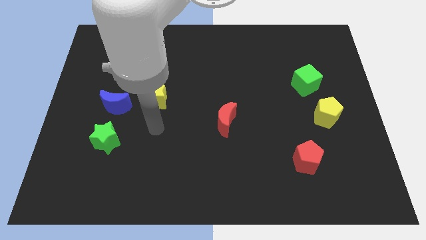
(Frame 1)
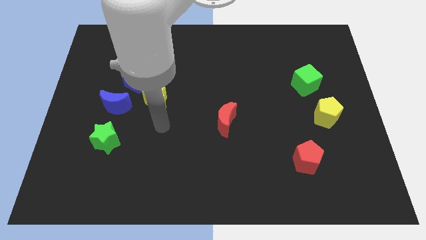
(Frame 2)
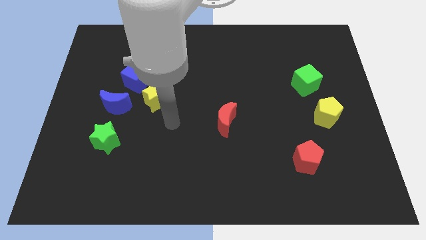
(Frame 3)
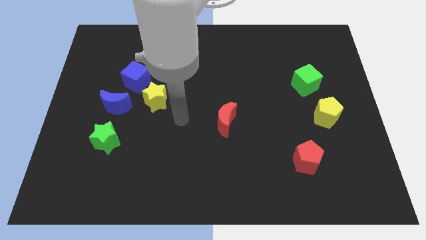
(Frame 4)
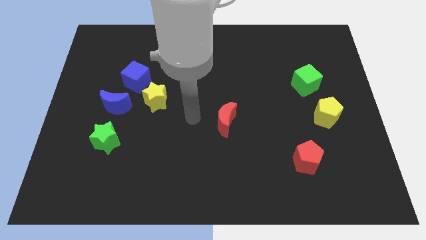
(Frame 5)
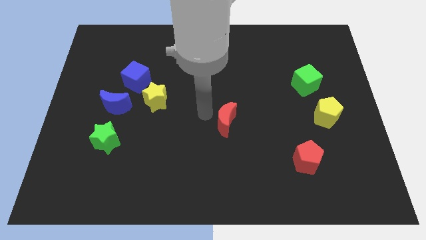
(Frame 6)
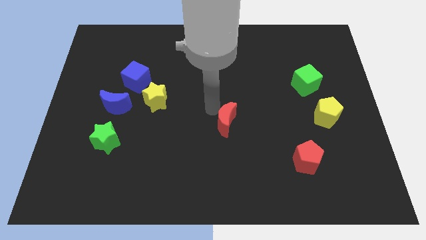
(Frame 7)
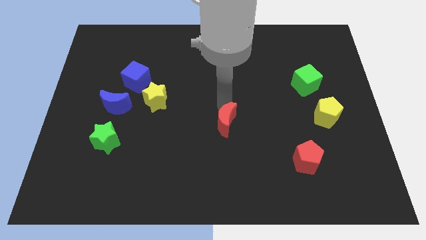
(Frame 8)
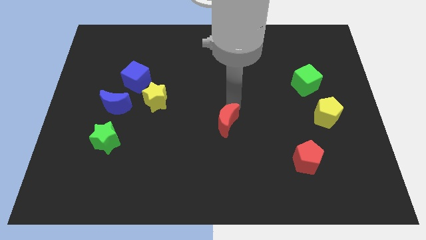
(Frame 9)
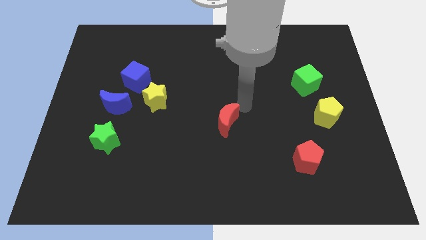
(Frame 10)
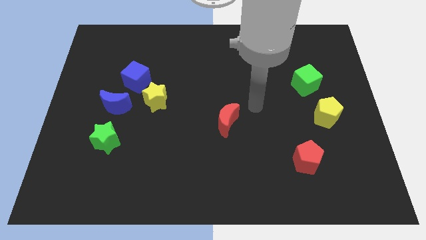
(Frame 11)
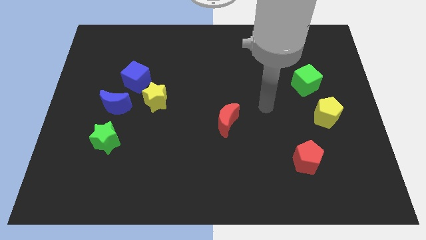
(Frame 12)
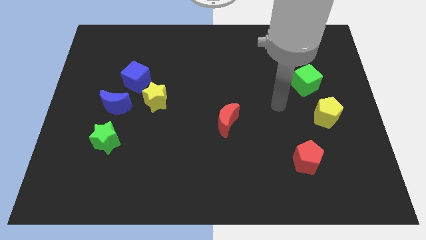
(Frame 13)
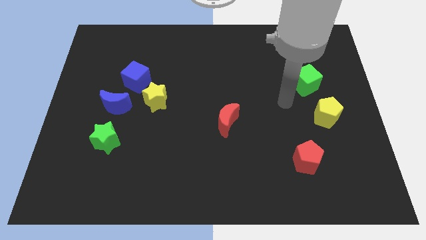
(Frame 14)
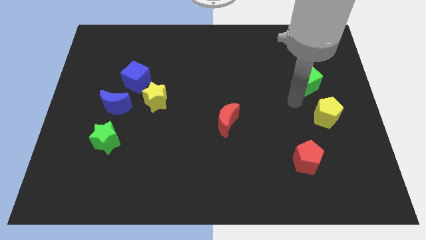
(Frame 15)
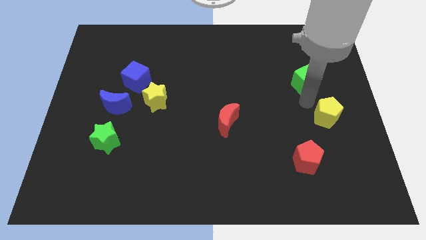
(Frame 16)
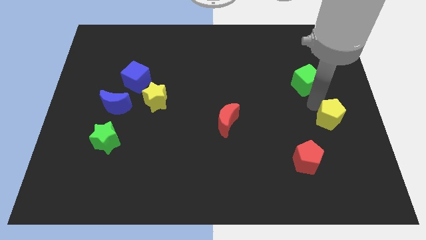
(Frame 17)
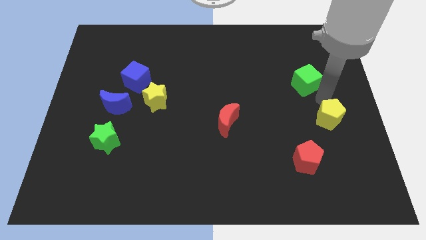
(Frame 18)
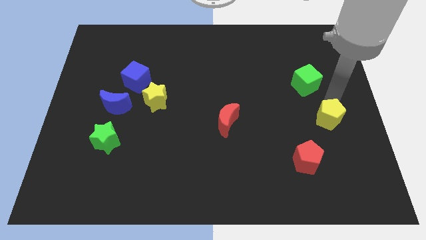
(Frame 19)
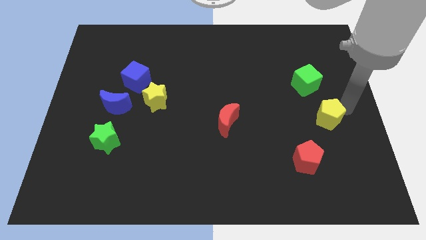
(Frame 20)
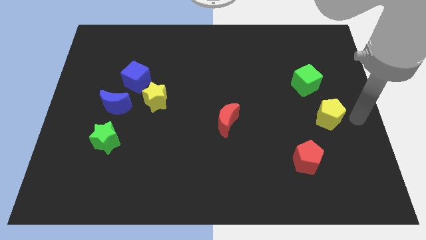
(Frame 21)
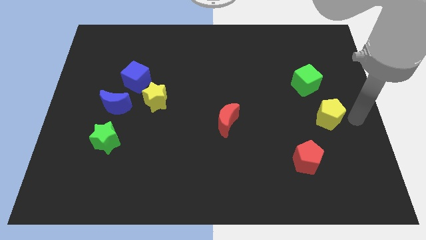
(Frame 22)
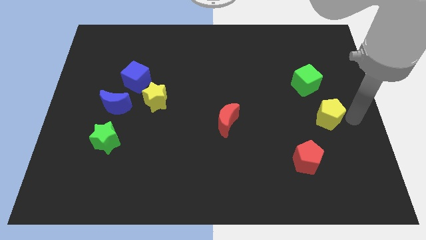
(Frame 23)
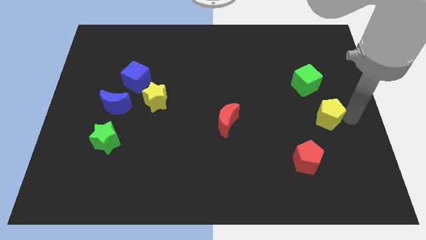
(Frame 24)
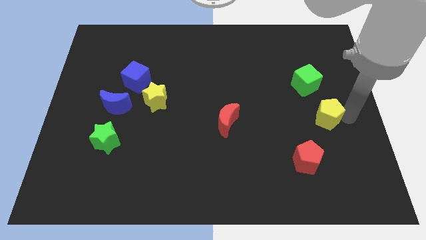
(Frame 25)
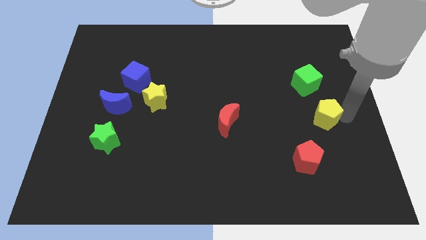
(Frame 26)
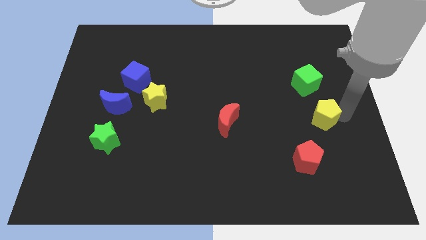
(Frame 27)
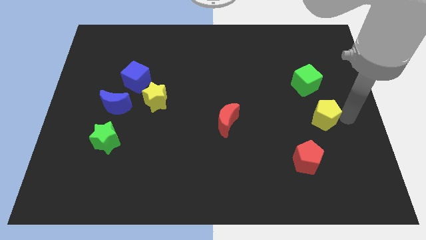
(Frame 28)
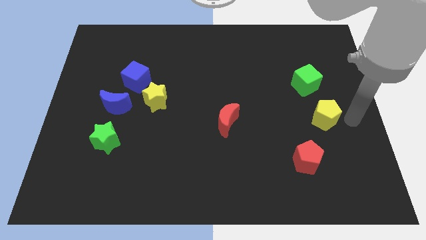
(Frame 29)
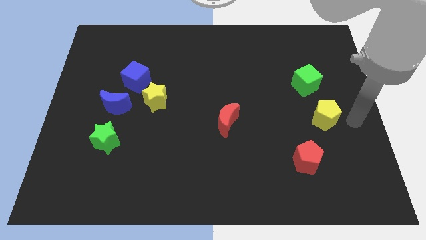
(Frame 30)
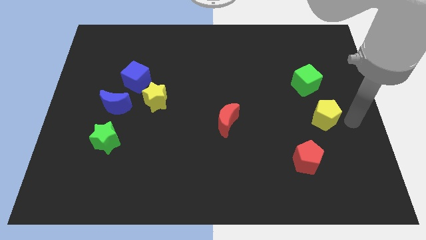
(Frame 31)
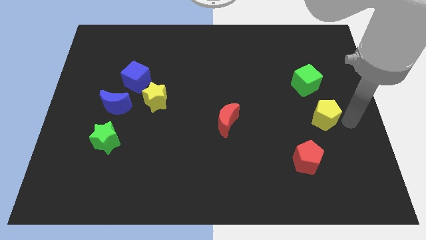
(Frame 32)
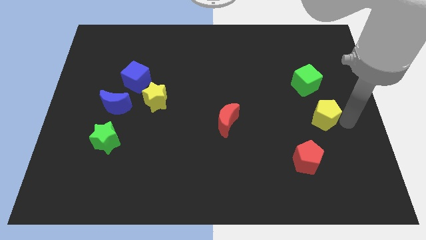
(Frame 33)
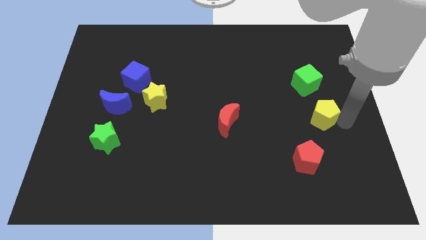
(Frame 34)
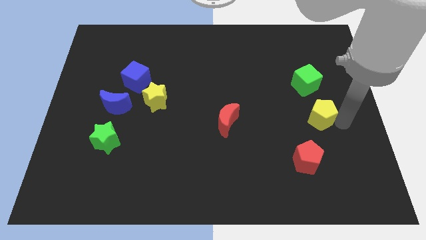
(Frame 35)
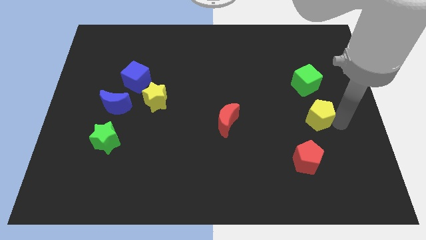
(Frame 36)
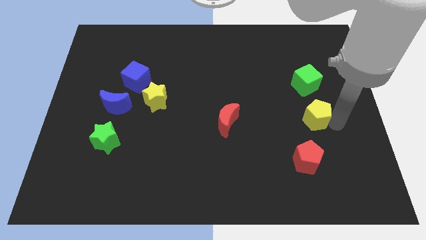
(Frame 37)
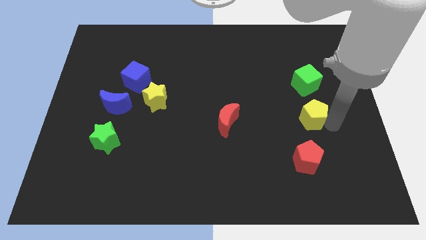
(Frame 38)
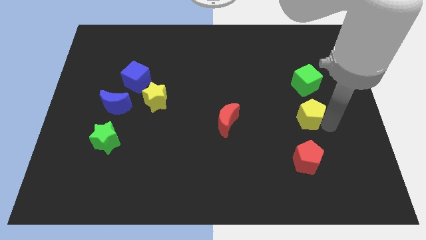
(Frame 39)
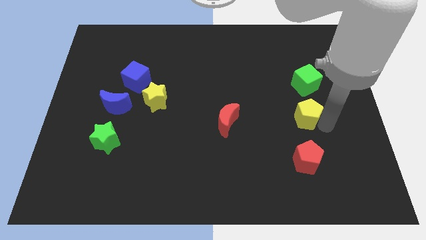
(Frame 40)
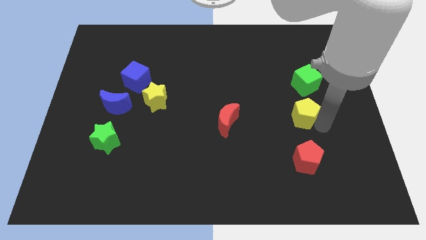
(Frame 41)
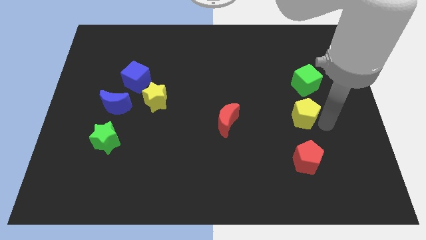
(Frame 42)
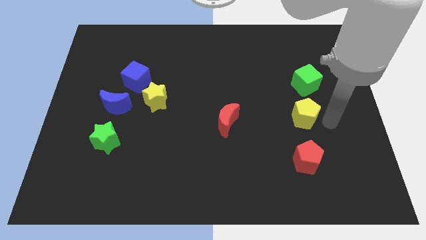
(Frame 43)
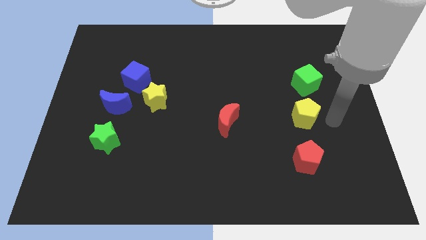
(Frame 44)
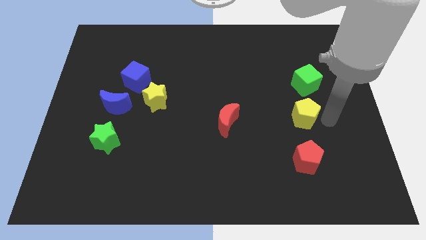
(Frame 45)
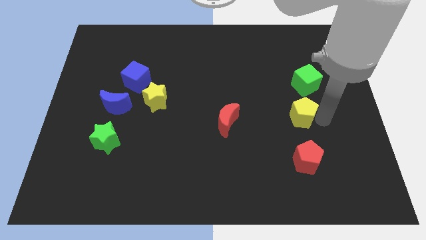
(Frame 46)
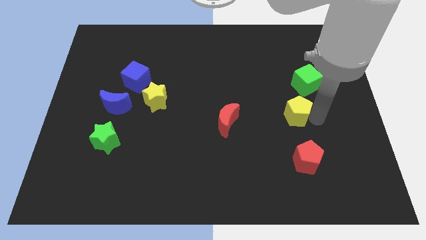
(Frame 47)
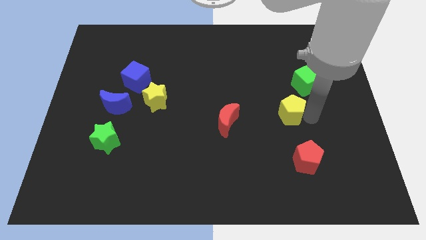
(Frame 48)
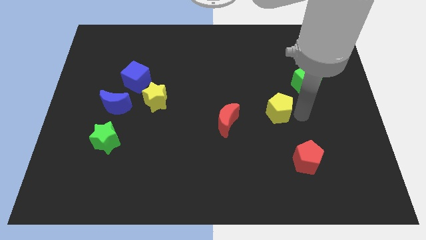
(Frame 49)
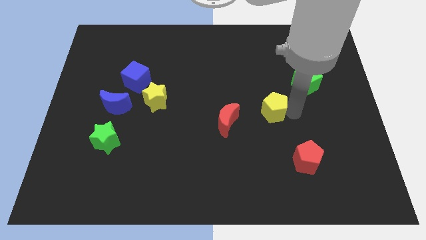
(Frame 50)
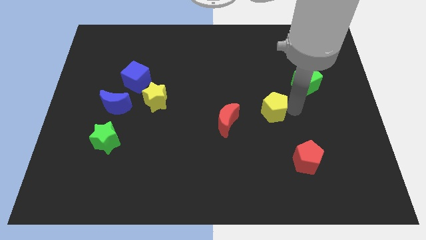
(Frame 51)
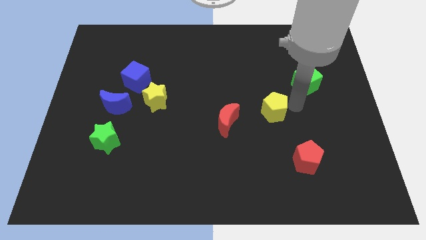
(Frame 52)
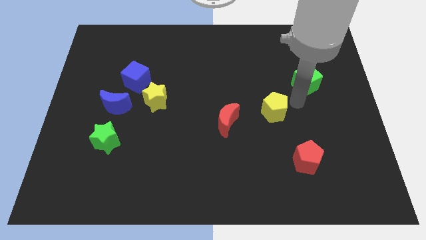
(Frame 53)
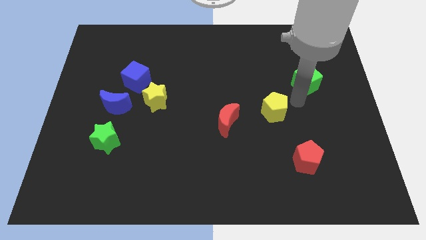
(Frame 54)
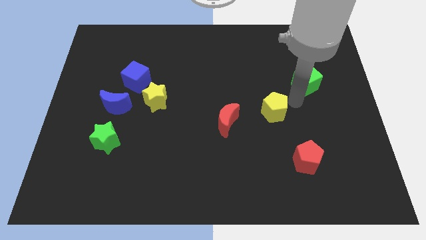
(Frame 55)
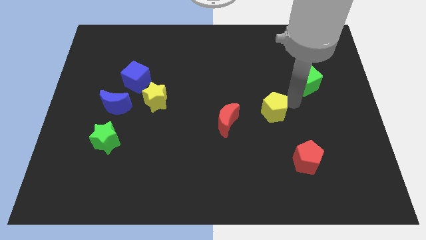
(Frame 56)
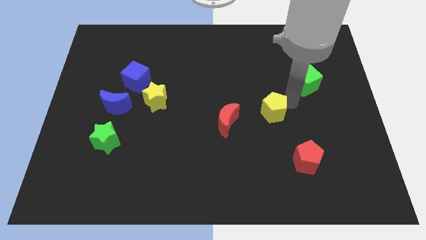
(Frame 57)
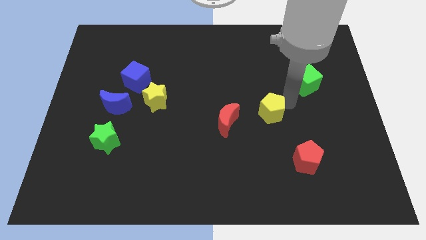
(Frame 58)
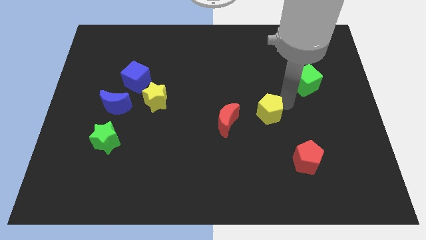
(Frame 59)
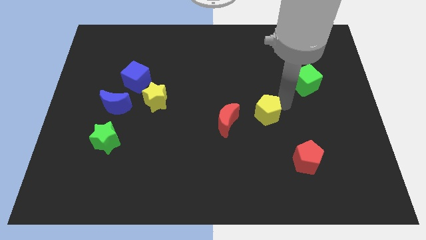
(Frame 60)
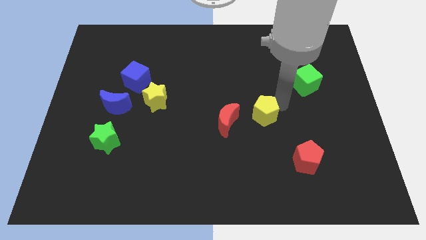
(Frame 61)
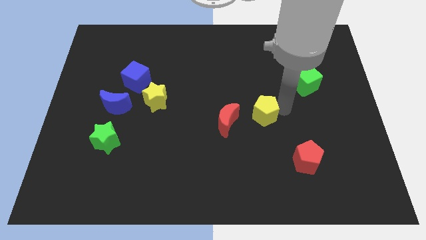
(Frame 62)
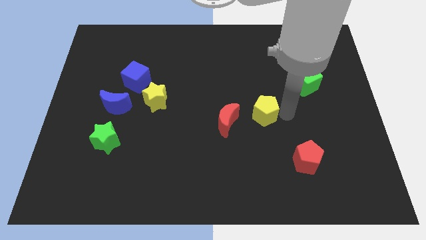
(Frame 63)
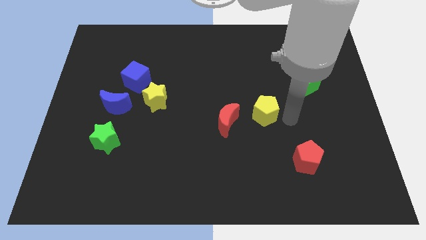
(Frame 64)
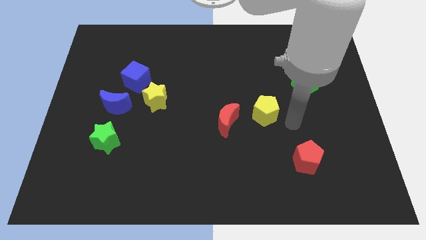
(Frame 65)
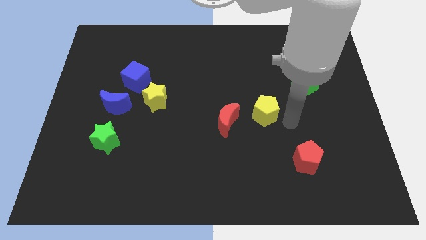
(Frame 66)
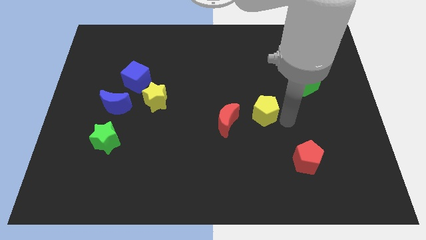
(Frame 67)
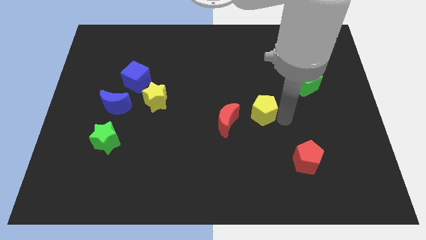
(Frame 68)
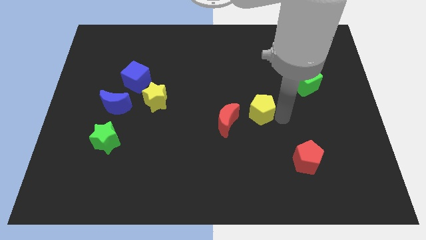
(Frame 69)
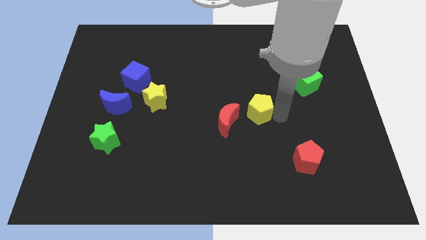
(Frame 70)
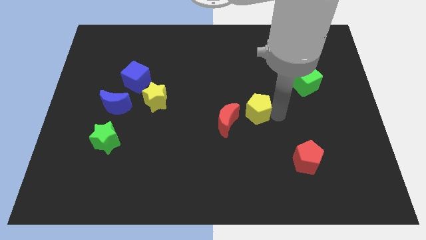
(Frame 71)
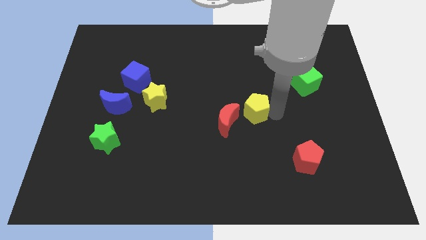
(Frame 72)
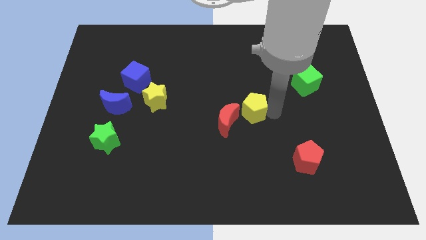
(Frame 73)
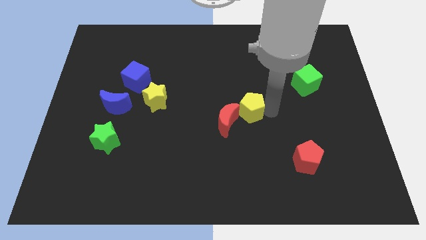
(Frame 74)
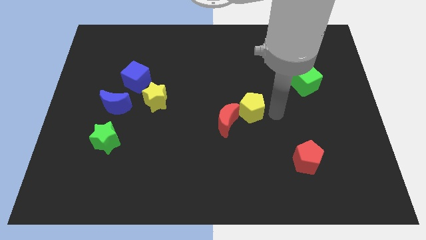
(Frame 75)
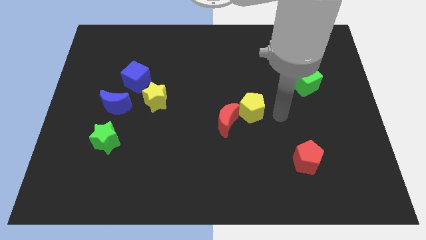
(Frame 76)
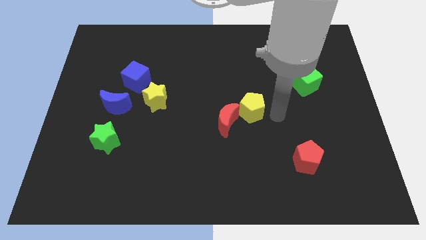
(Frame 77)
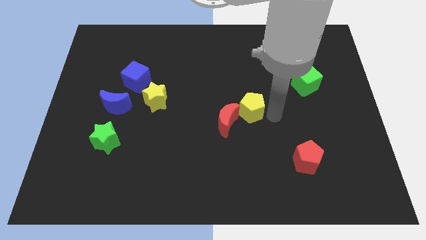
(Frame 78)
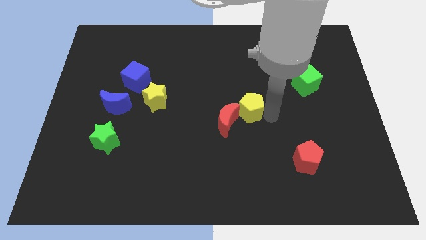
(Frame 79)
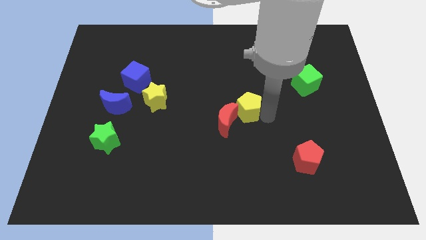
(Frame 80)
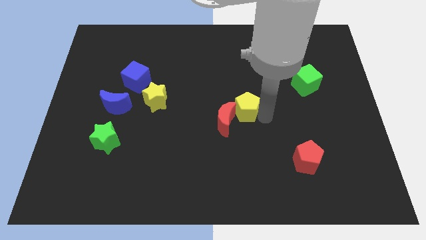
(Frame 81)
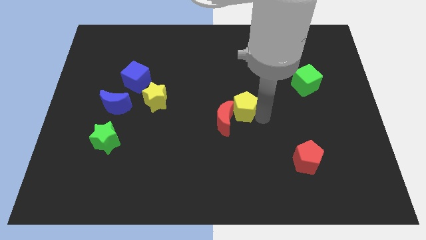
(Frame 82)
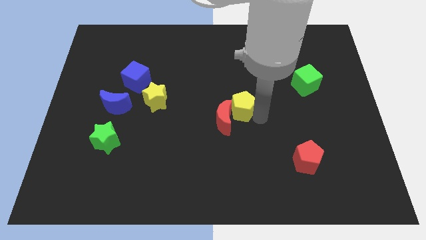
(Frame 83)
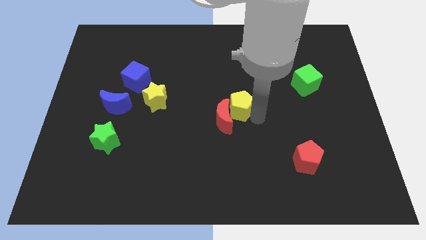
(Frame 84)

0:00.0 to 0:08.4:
move the yellow pentagon to the left
